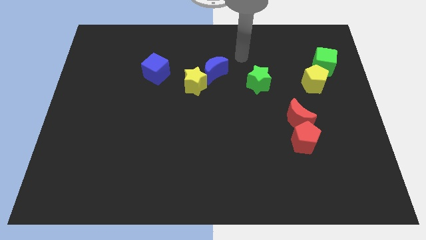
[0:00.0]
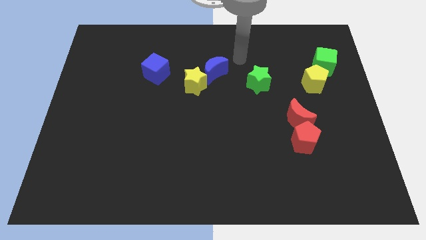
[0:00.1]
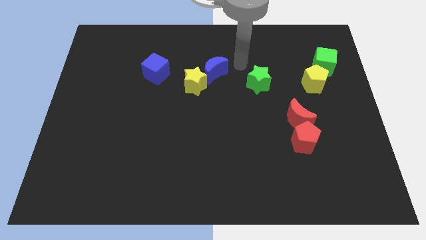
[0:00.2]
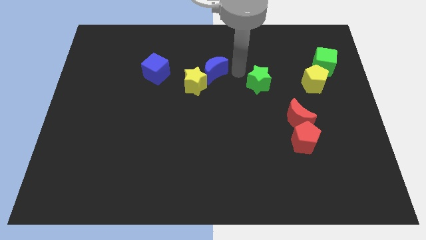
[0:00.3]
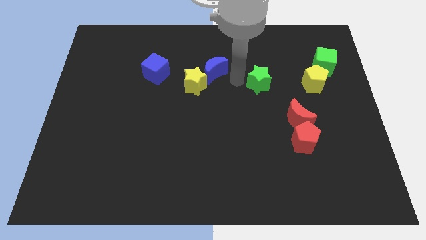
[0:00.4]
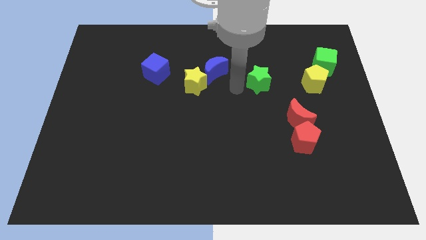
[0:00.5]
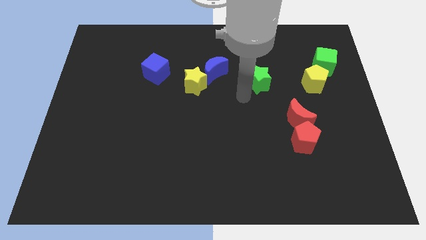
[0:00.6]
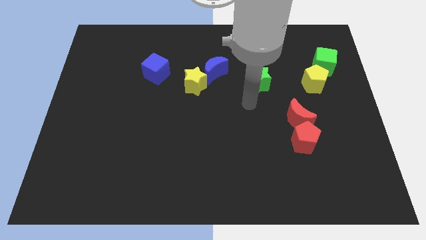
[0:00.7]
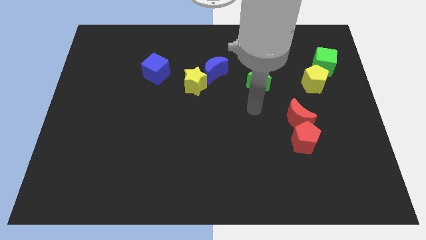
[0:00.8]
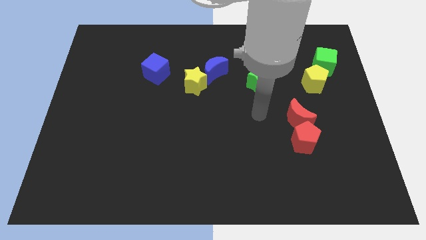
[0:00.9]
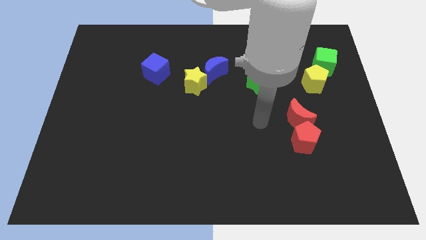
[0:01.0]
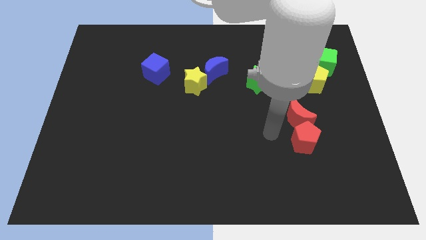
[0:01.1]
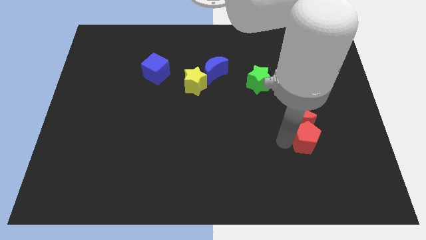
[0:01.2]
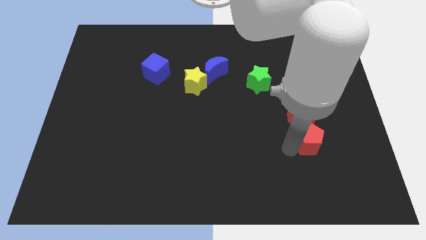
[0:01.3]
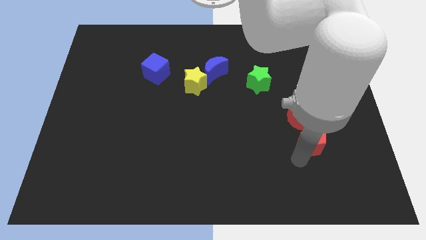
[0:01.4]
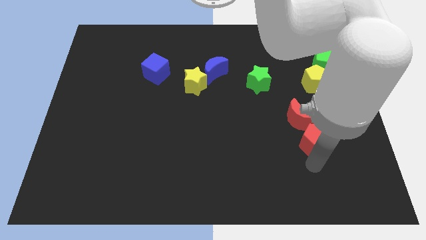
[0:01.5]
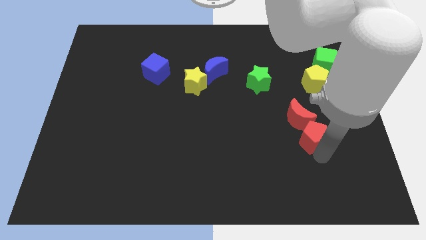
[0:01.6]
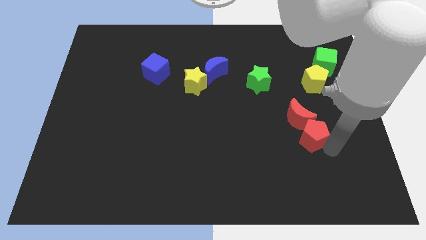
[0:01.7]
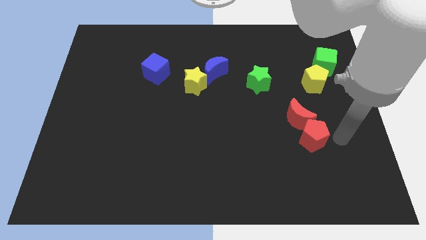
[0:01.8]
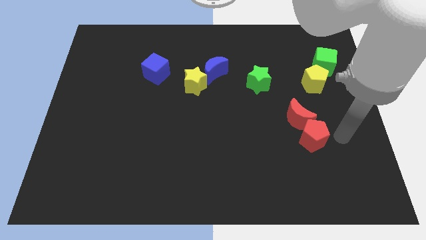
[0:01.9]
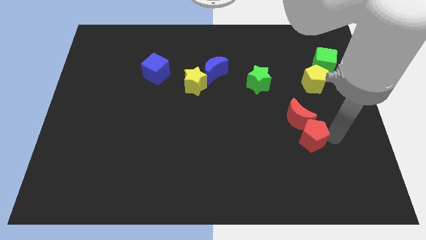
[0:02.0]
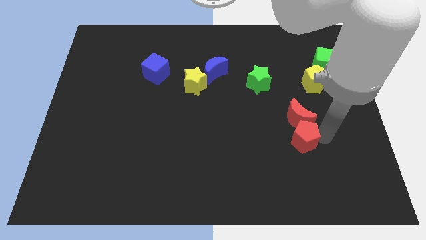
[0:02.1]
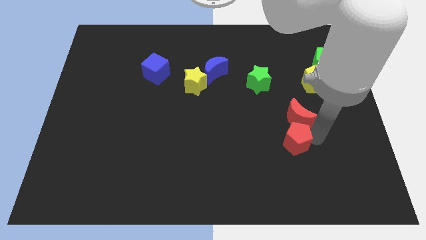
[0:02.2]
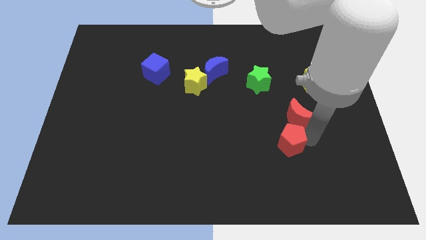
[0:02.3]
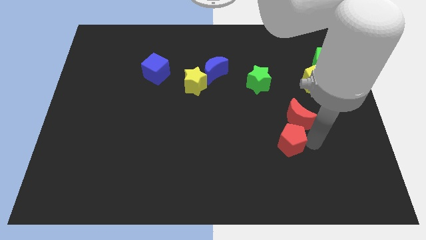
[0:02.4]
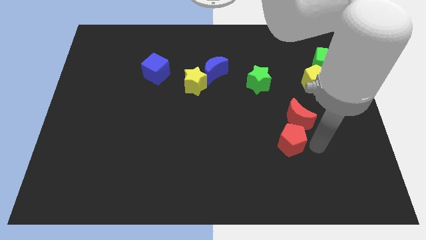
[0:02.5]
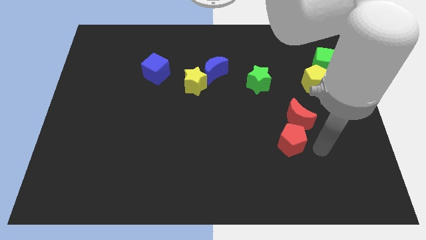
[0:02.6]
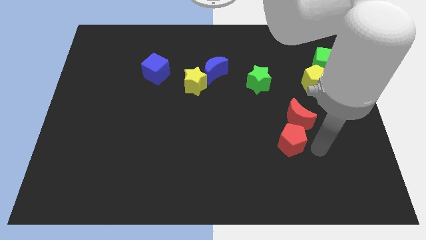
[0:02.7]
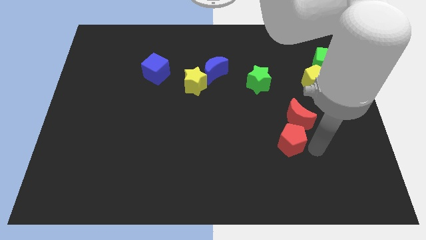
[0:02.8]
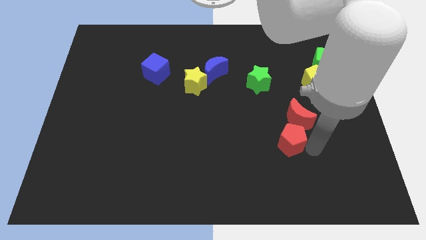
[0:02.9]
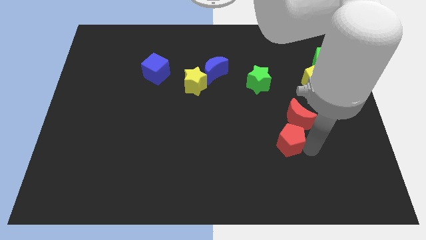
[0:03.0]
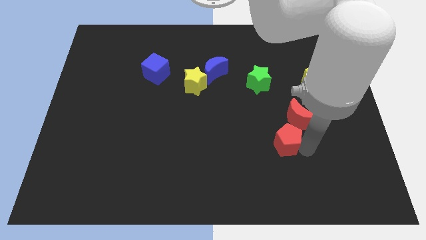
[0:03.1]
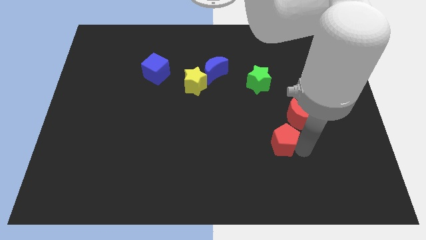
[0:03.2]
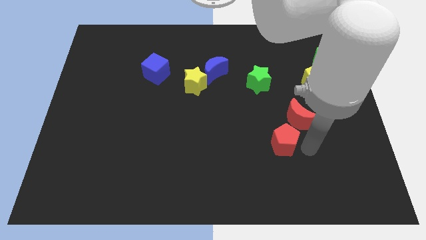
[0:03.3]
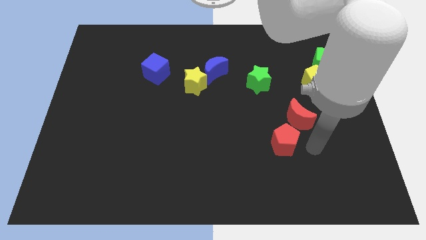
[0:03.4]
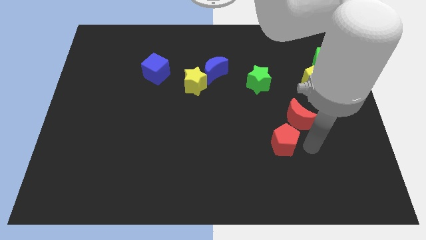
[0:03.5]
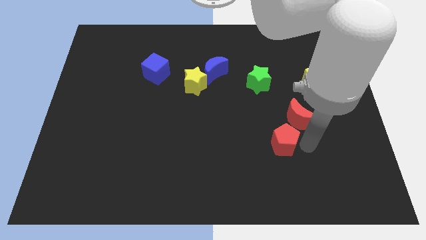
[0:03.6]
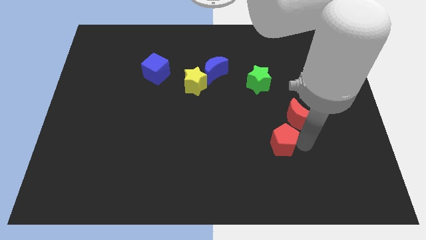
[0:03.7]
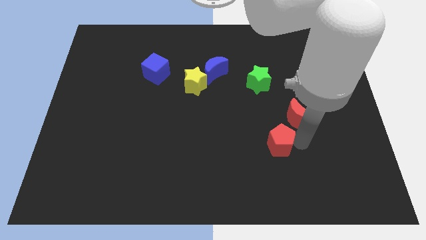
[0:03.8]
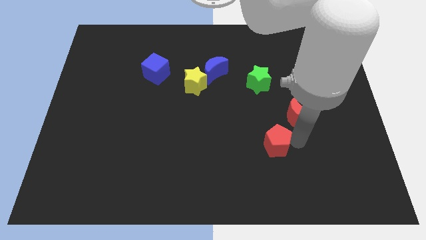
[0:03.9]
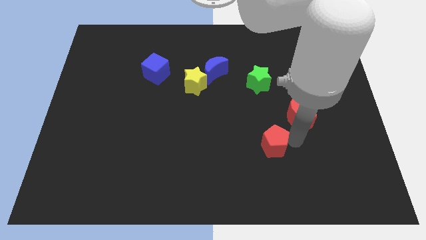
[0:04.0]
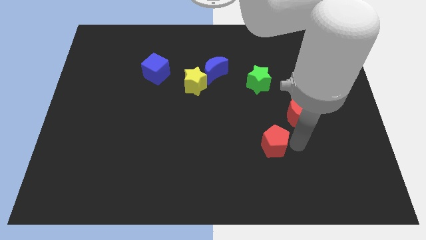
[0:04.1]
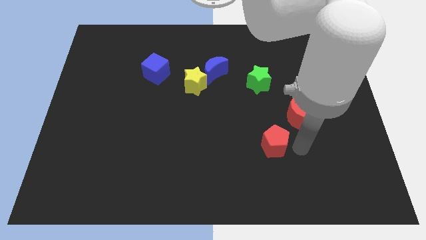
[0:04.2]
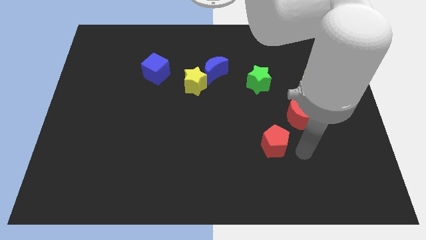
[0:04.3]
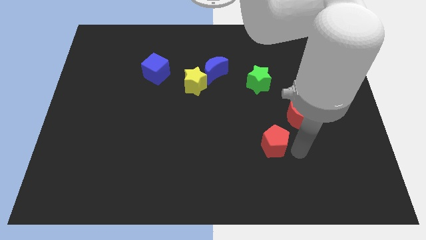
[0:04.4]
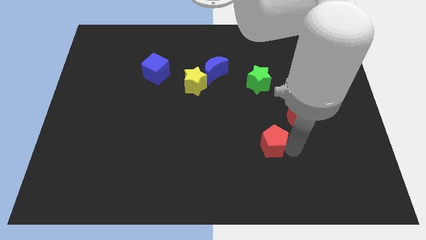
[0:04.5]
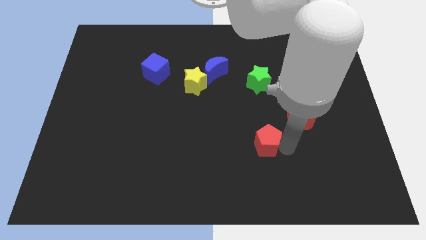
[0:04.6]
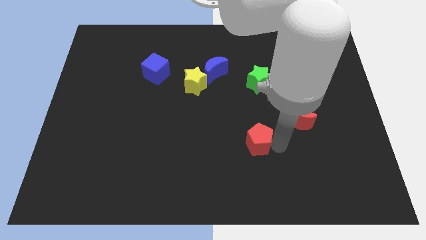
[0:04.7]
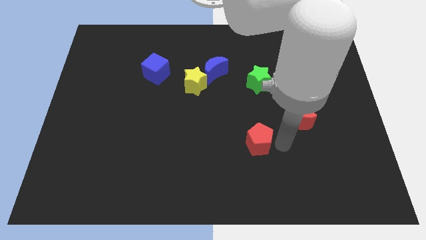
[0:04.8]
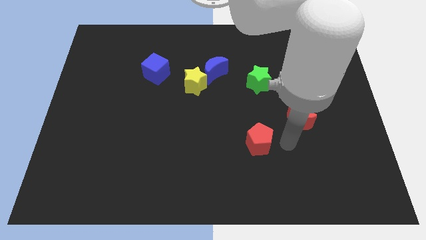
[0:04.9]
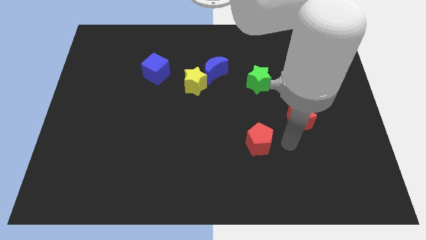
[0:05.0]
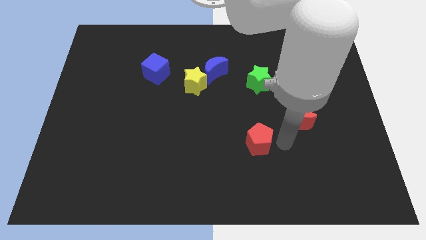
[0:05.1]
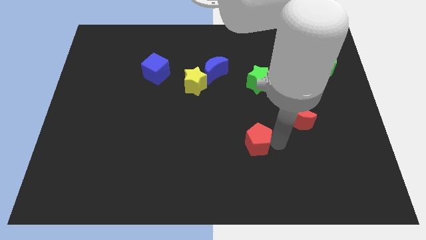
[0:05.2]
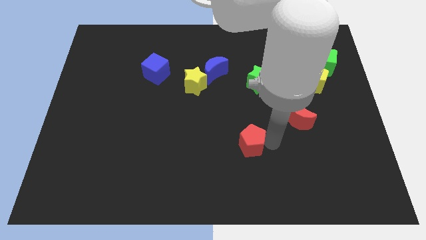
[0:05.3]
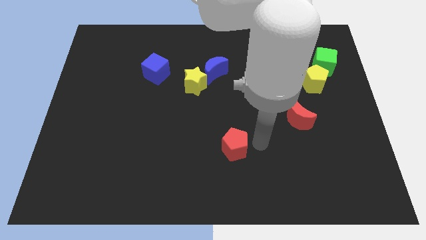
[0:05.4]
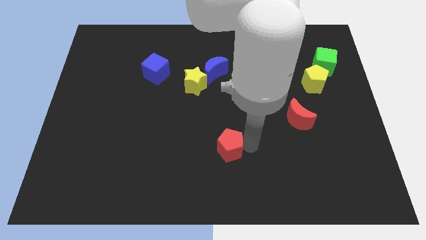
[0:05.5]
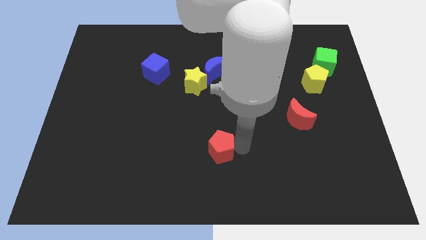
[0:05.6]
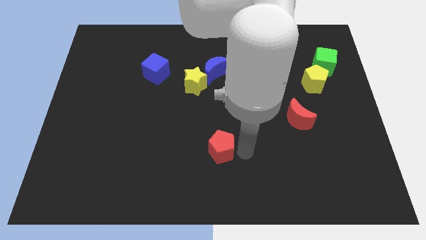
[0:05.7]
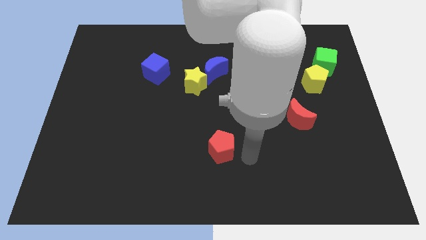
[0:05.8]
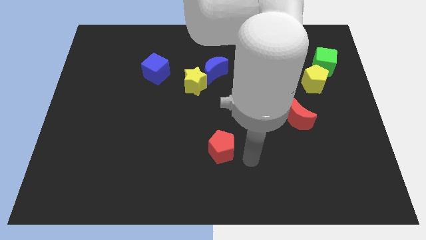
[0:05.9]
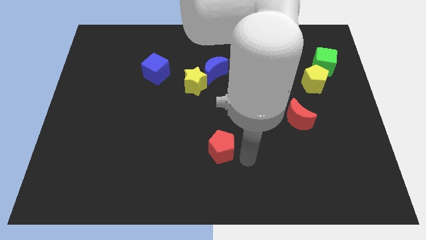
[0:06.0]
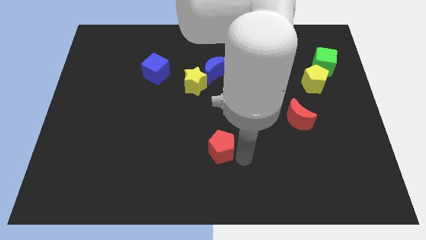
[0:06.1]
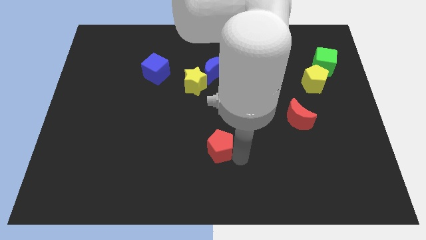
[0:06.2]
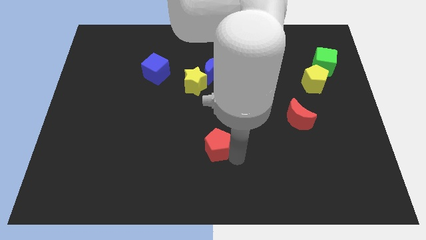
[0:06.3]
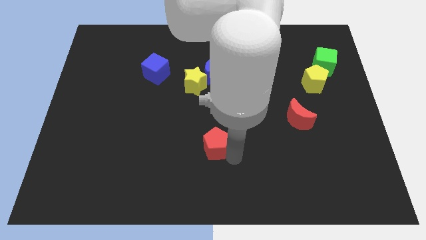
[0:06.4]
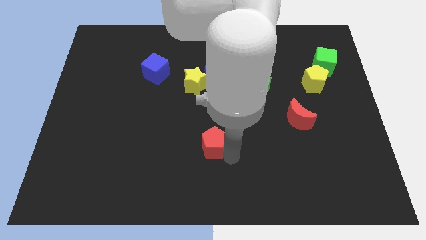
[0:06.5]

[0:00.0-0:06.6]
slide the red pentagon to the left

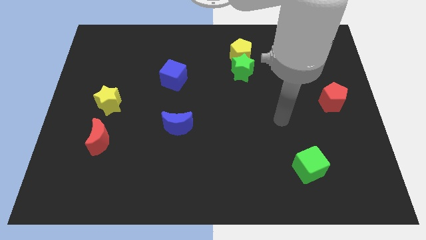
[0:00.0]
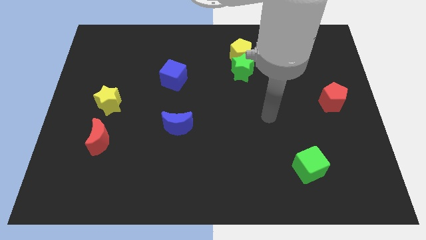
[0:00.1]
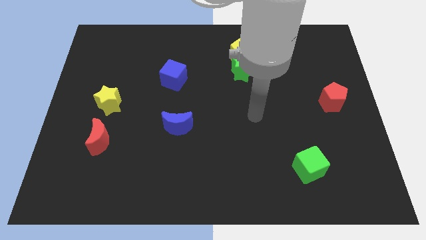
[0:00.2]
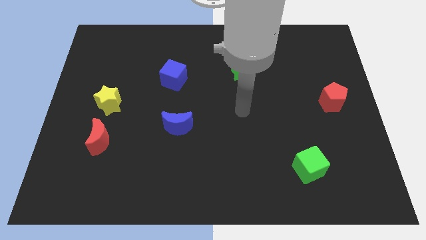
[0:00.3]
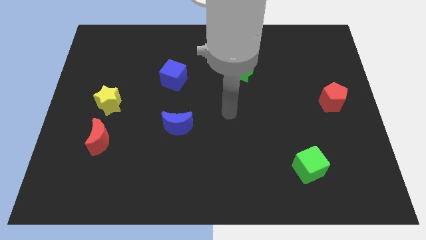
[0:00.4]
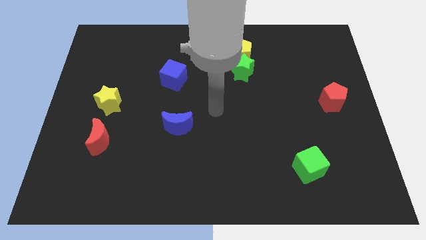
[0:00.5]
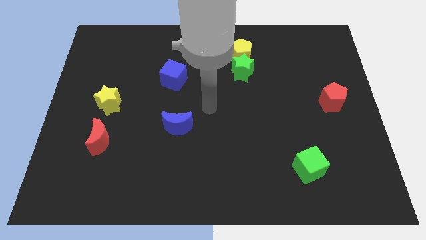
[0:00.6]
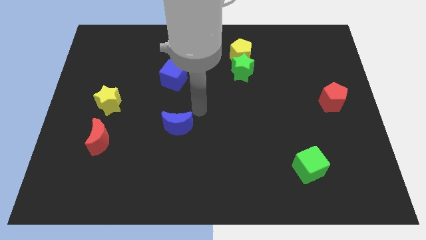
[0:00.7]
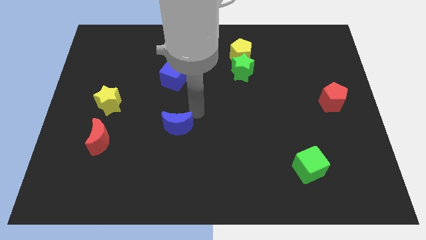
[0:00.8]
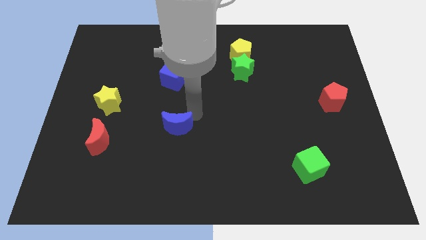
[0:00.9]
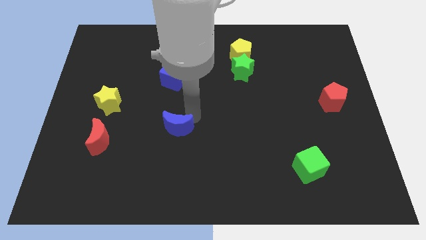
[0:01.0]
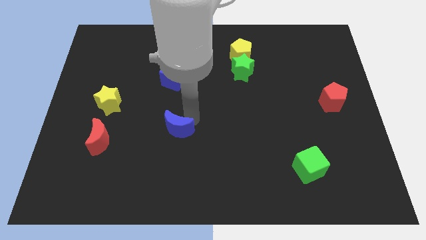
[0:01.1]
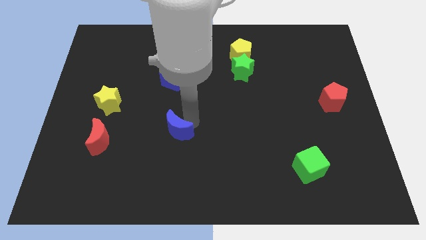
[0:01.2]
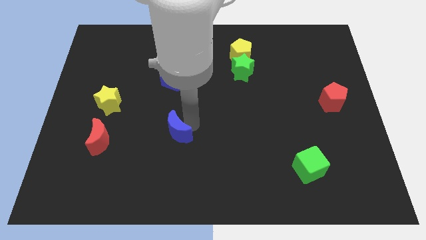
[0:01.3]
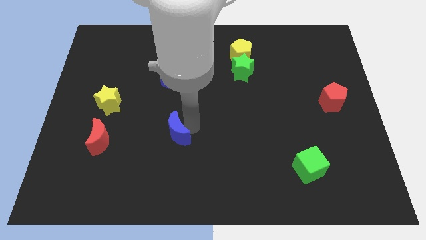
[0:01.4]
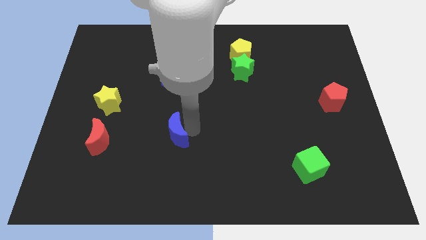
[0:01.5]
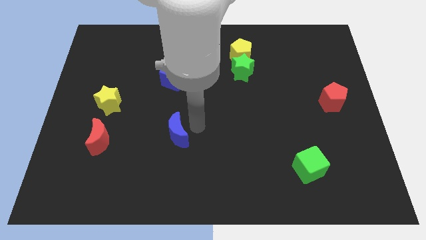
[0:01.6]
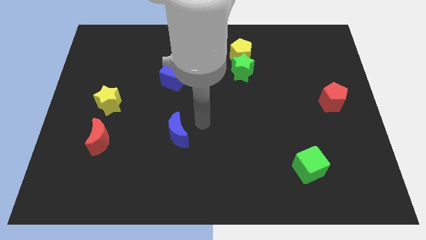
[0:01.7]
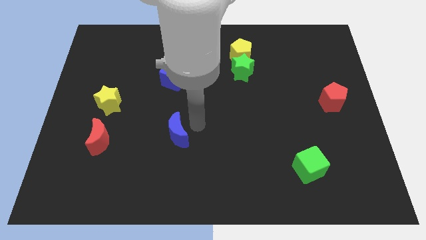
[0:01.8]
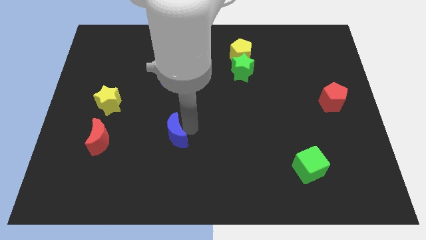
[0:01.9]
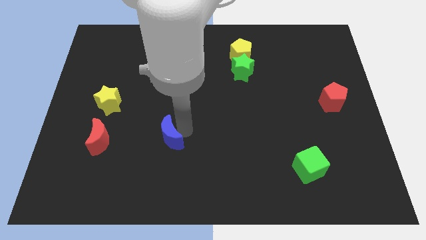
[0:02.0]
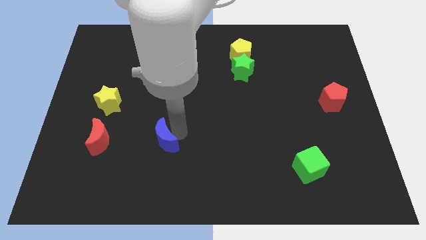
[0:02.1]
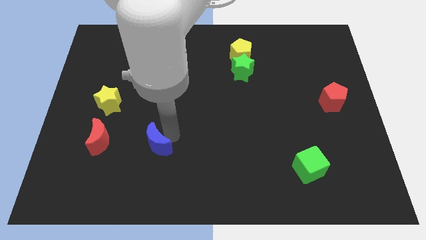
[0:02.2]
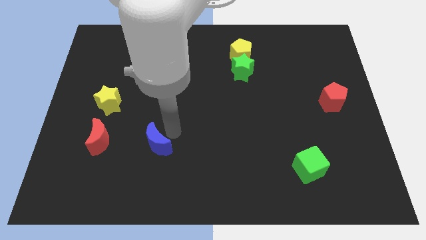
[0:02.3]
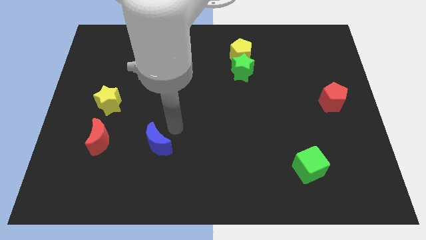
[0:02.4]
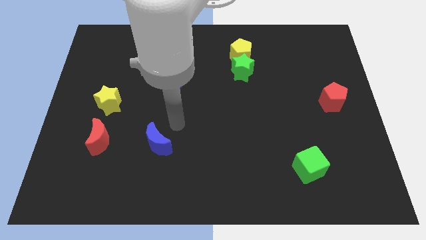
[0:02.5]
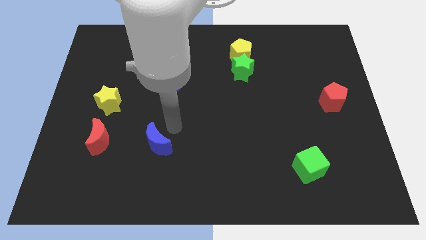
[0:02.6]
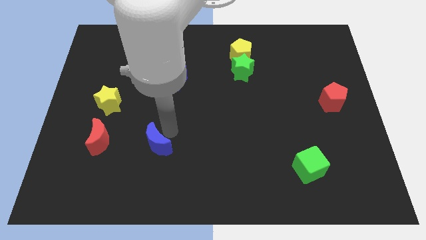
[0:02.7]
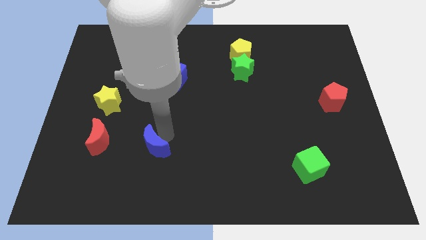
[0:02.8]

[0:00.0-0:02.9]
slightly move the blue moon downwards and then to the left
